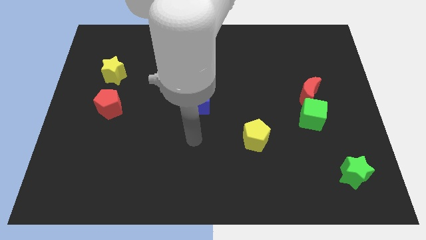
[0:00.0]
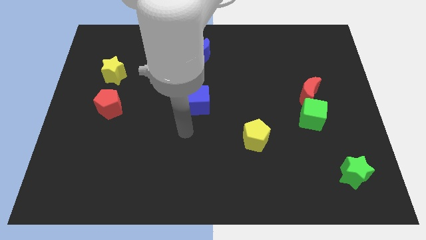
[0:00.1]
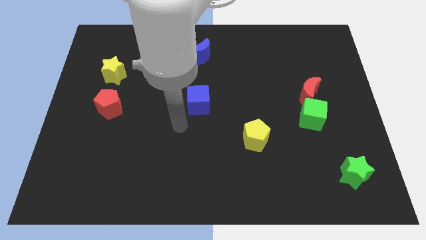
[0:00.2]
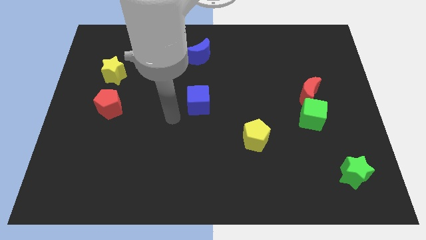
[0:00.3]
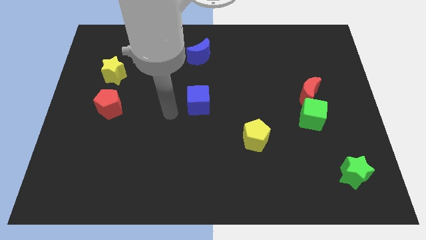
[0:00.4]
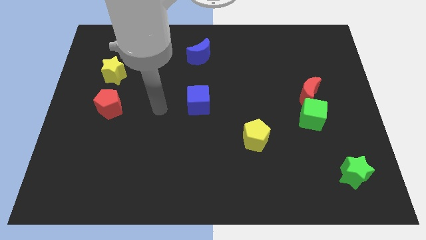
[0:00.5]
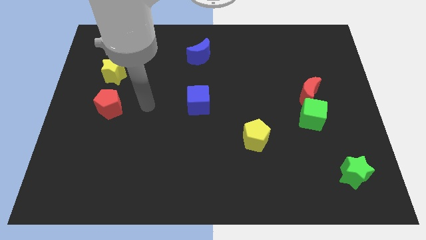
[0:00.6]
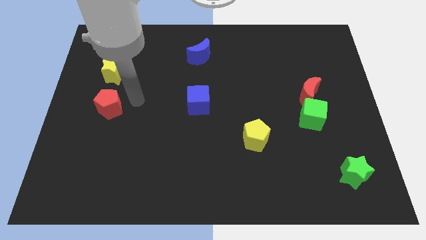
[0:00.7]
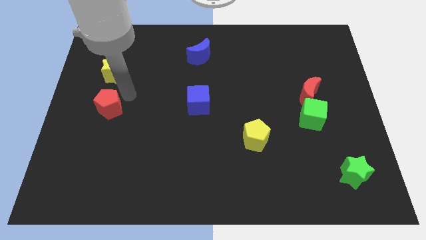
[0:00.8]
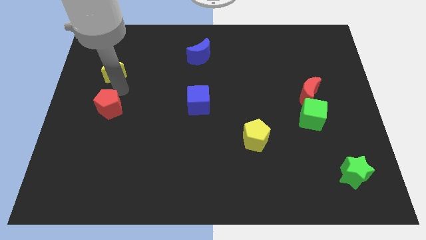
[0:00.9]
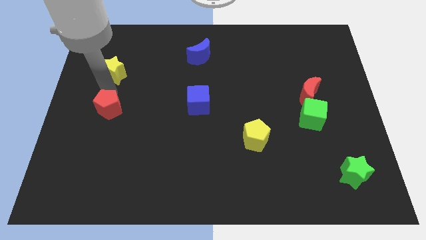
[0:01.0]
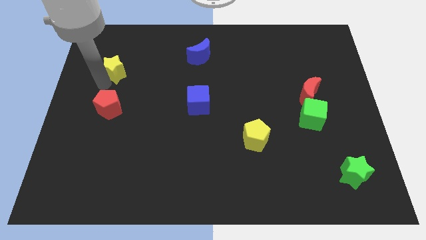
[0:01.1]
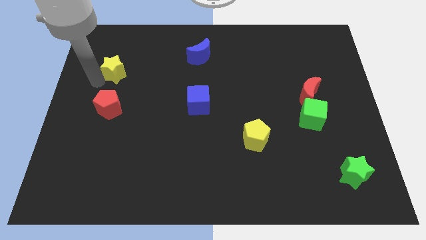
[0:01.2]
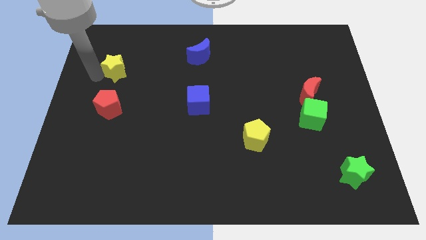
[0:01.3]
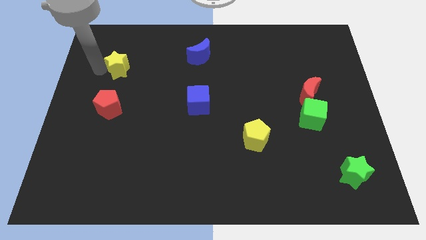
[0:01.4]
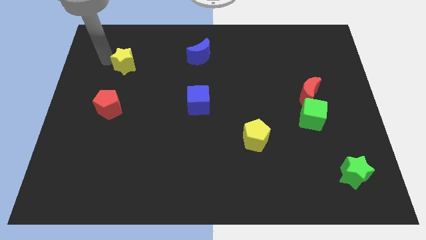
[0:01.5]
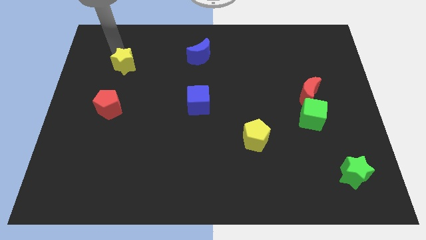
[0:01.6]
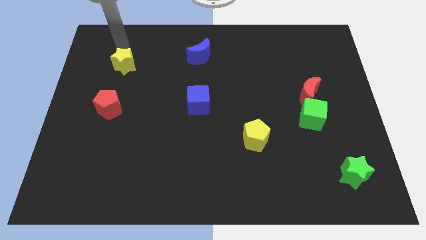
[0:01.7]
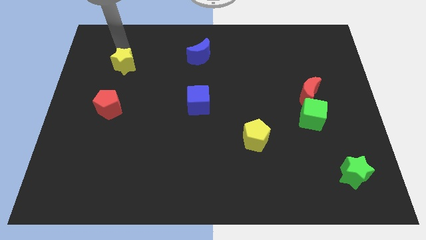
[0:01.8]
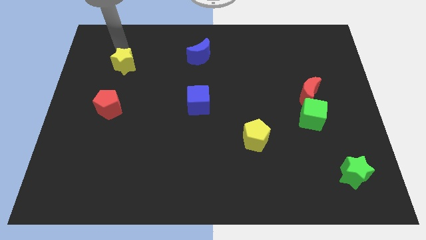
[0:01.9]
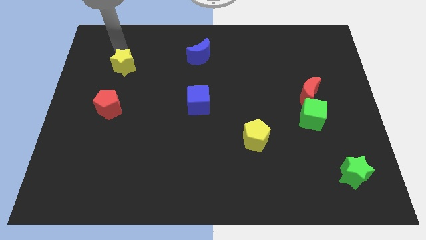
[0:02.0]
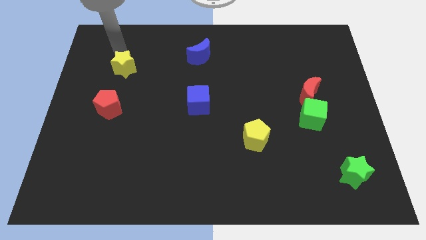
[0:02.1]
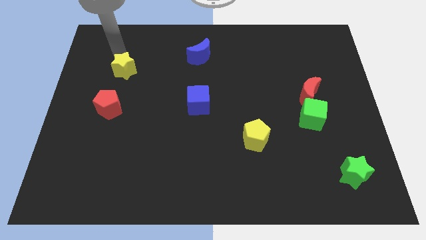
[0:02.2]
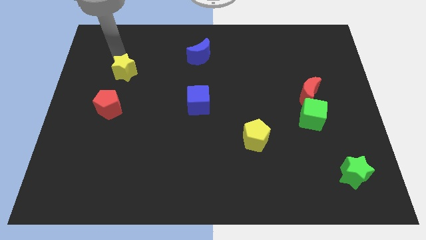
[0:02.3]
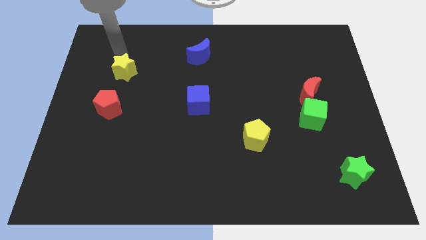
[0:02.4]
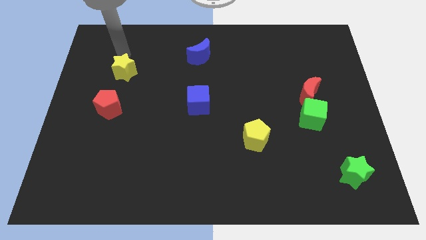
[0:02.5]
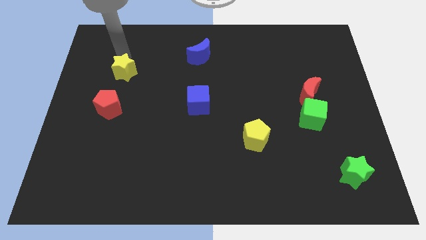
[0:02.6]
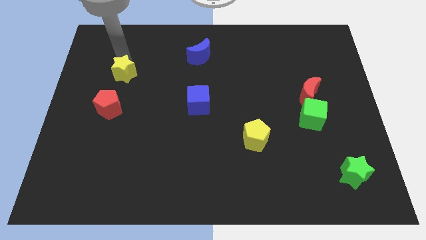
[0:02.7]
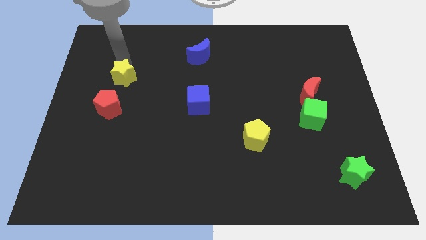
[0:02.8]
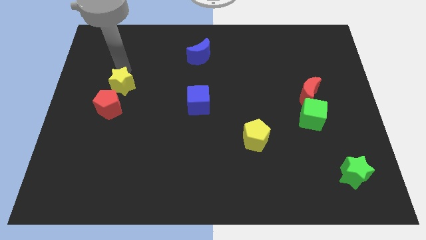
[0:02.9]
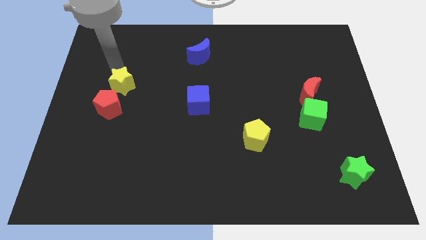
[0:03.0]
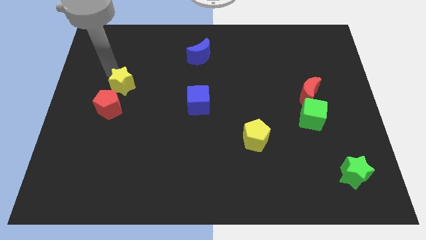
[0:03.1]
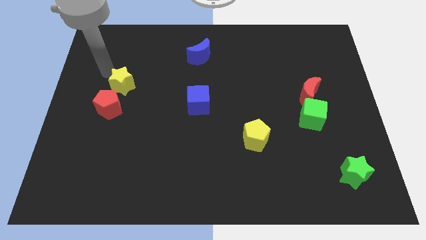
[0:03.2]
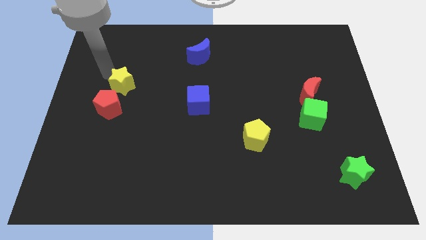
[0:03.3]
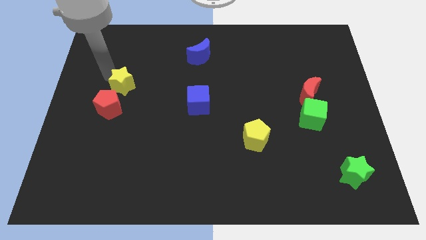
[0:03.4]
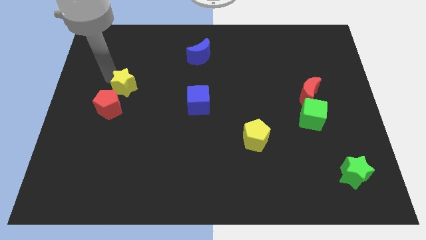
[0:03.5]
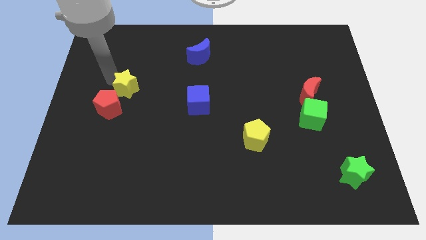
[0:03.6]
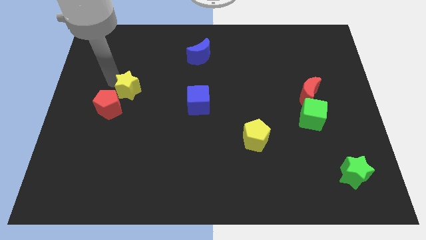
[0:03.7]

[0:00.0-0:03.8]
move the yellow star somewhat downwards and to the right diagonally

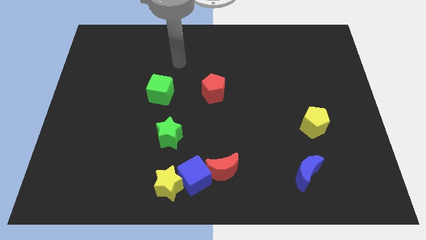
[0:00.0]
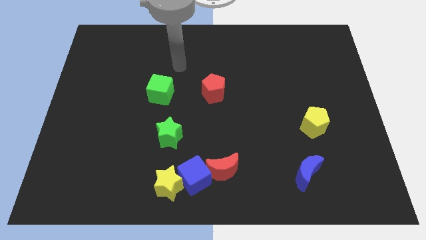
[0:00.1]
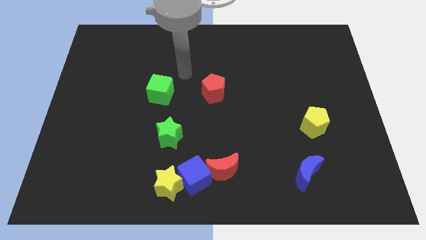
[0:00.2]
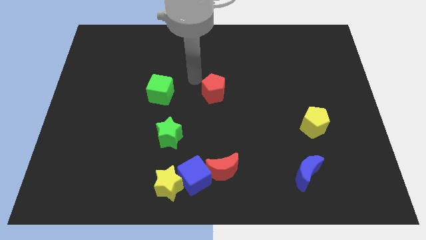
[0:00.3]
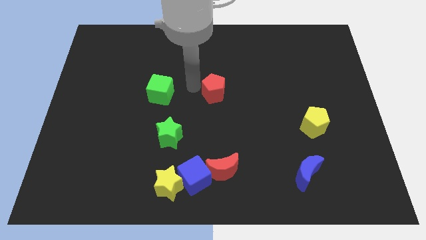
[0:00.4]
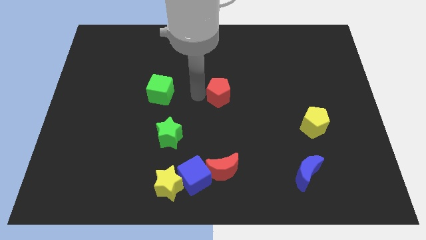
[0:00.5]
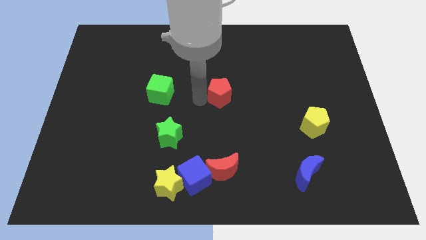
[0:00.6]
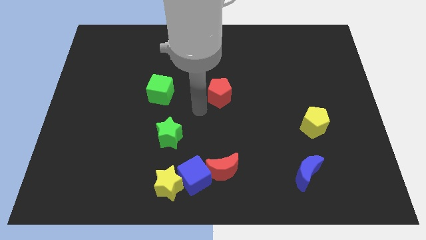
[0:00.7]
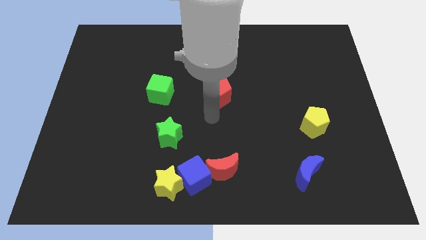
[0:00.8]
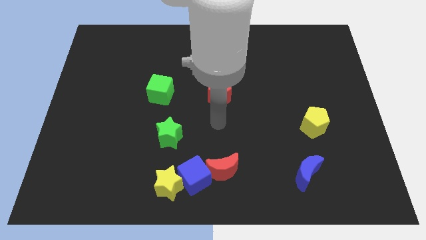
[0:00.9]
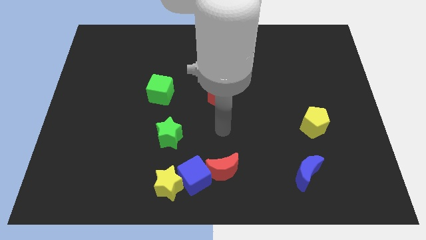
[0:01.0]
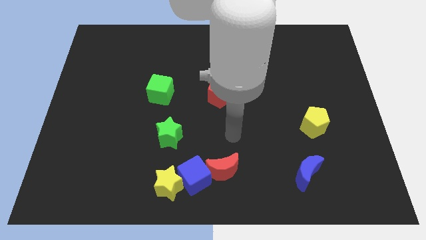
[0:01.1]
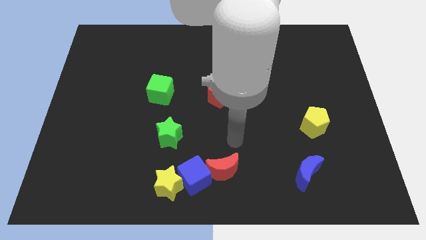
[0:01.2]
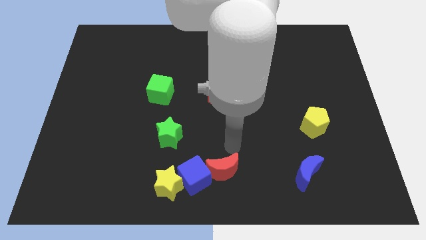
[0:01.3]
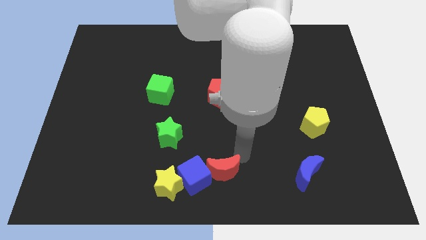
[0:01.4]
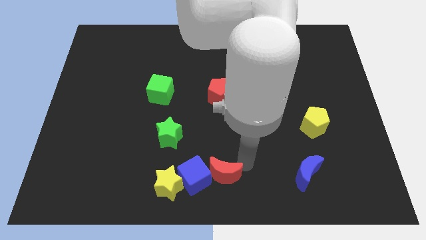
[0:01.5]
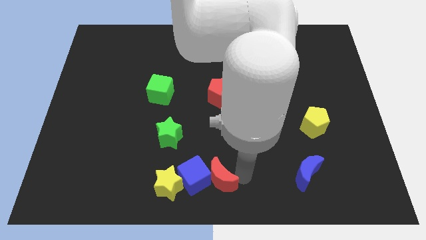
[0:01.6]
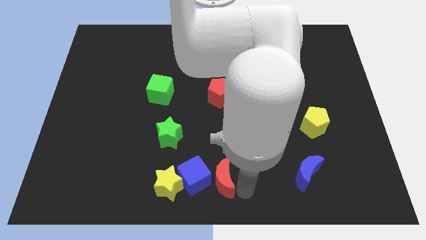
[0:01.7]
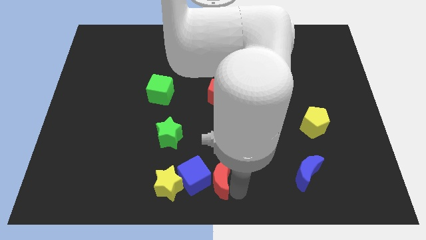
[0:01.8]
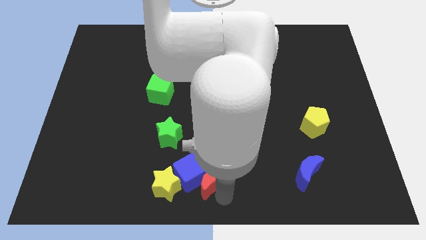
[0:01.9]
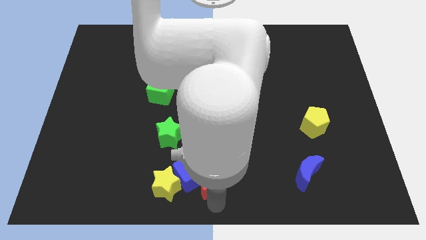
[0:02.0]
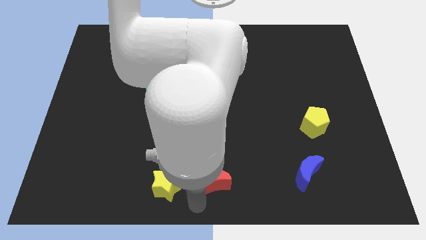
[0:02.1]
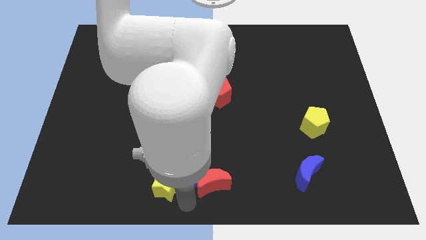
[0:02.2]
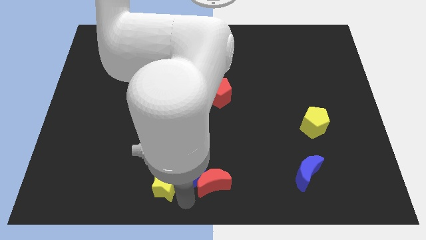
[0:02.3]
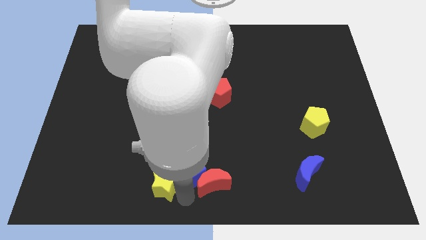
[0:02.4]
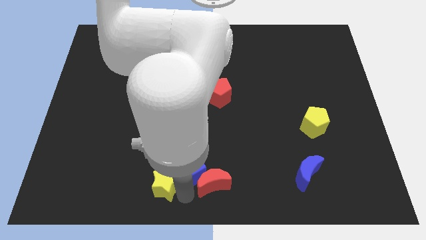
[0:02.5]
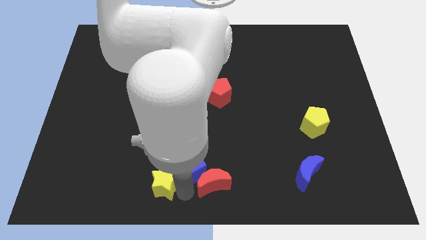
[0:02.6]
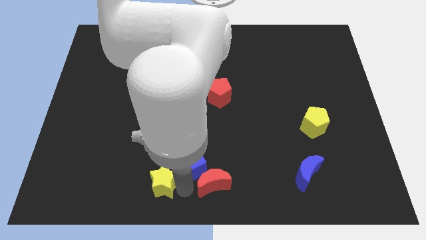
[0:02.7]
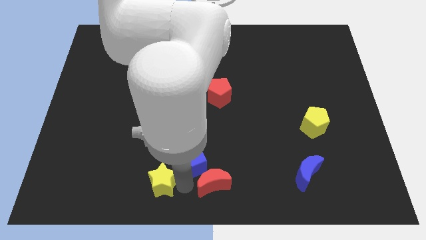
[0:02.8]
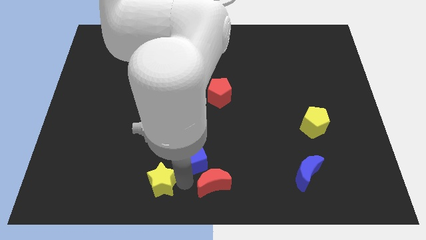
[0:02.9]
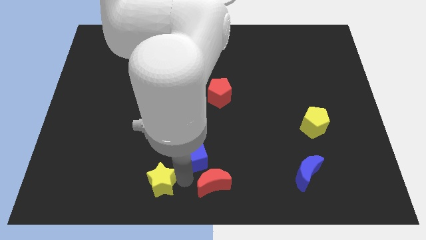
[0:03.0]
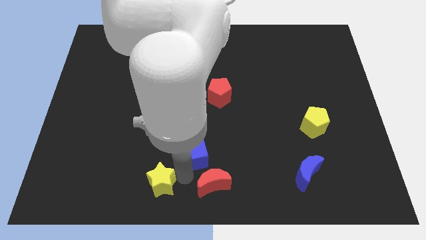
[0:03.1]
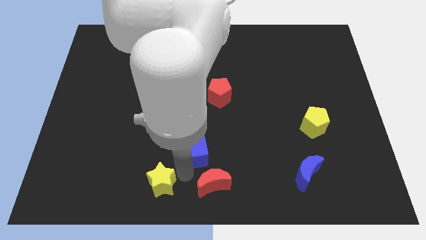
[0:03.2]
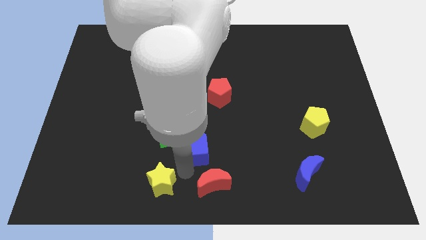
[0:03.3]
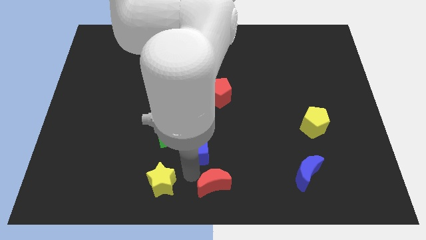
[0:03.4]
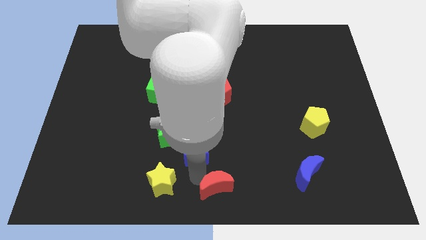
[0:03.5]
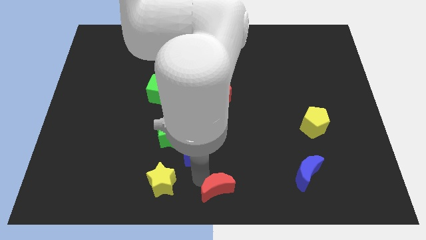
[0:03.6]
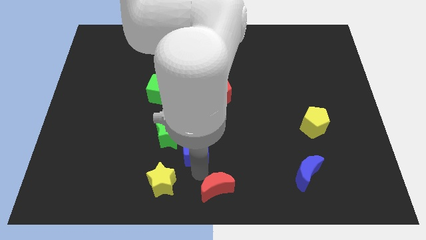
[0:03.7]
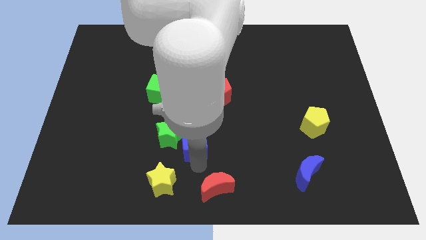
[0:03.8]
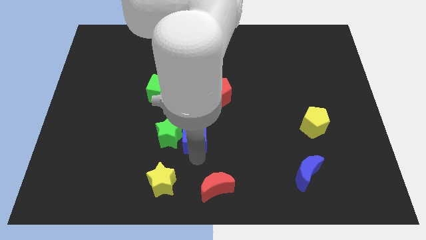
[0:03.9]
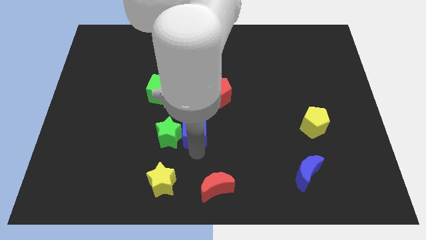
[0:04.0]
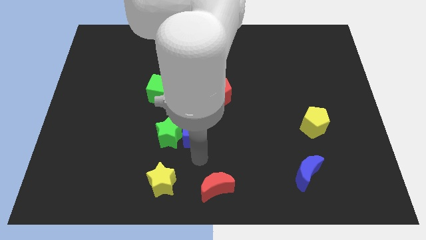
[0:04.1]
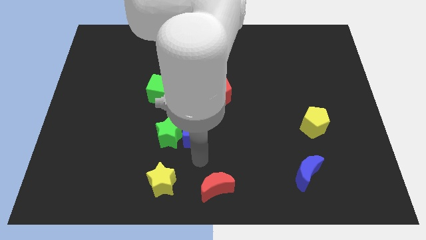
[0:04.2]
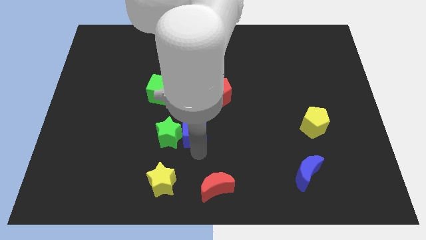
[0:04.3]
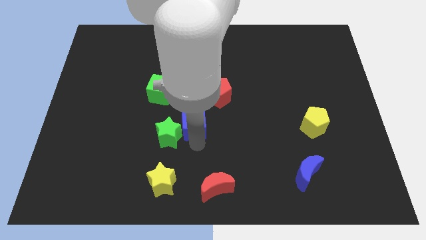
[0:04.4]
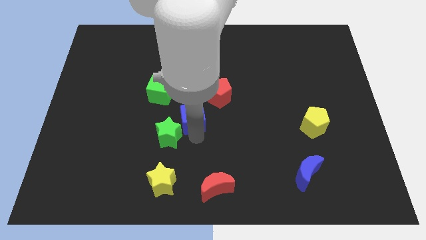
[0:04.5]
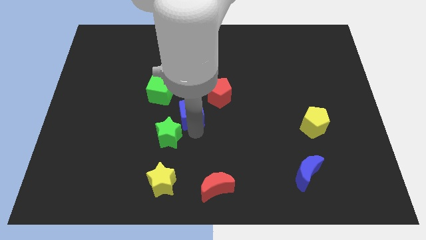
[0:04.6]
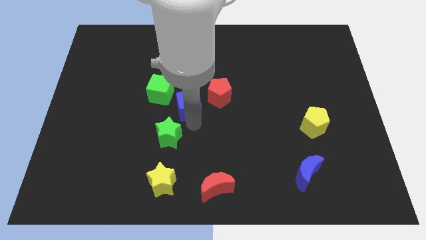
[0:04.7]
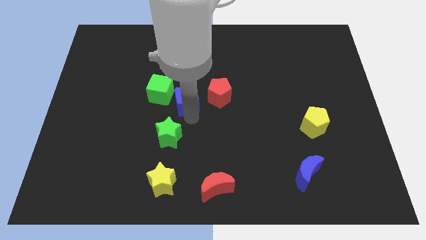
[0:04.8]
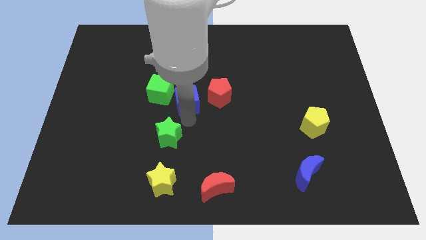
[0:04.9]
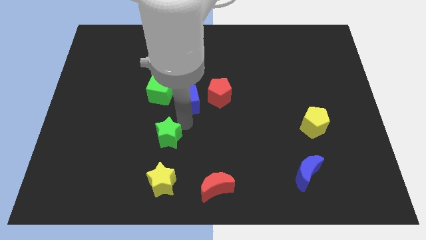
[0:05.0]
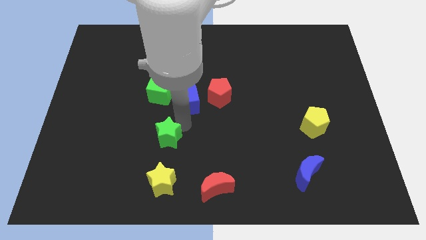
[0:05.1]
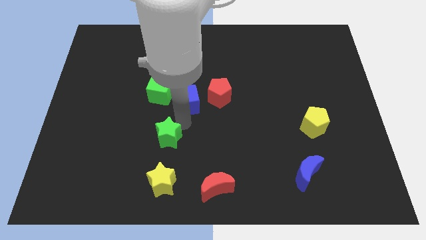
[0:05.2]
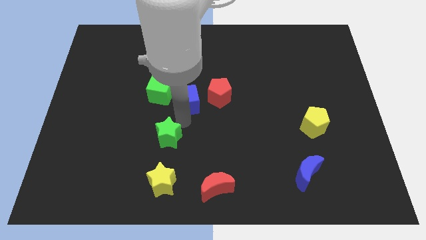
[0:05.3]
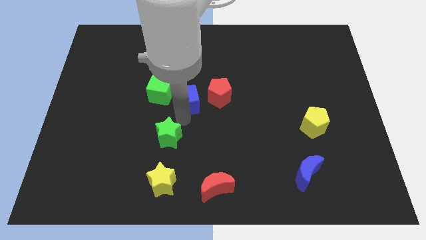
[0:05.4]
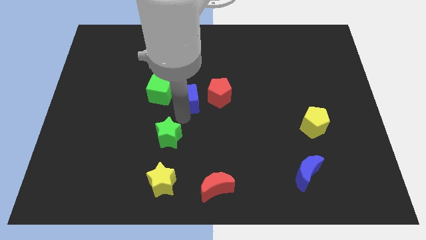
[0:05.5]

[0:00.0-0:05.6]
push the blue cube upwards
